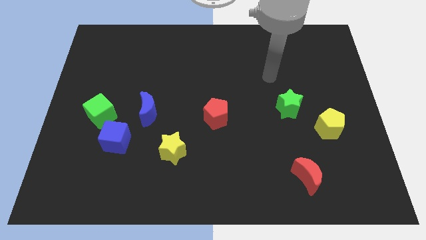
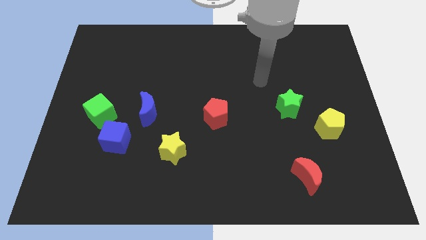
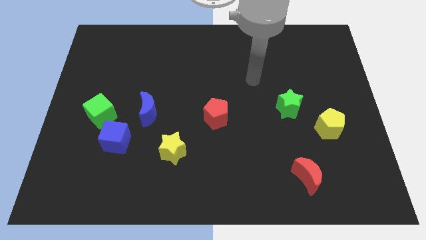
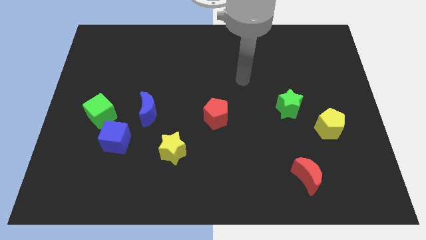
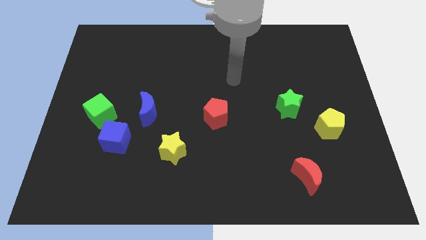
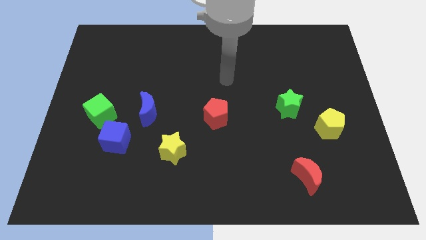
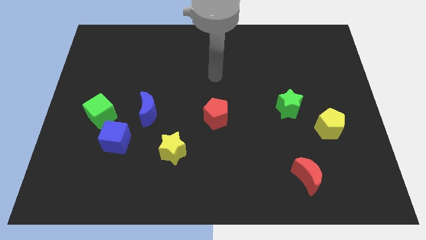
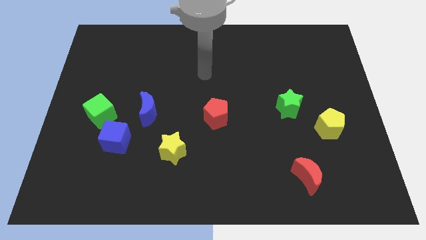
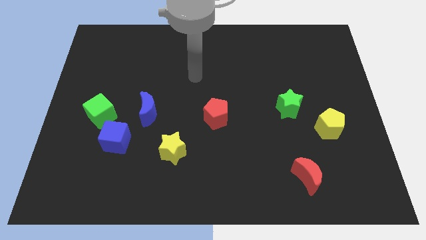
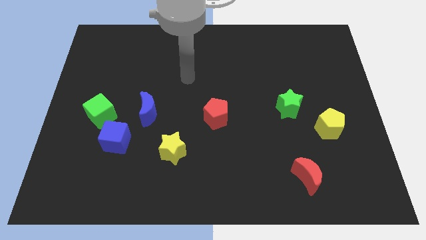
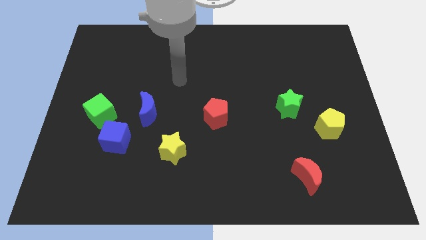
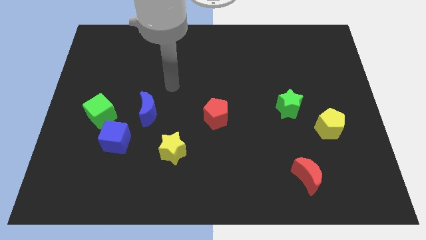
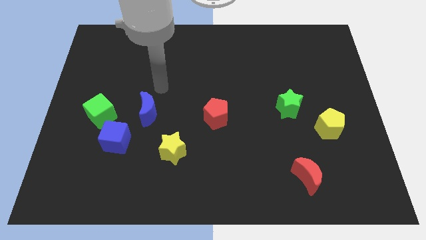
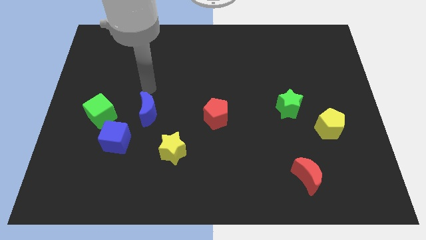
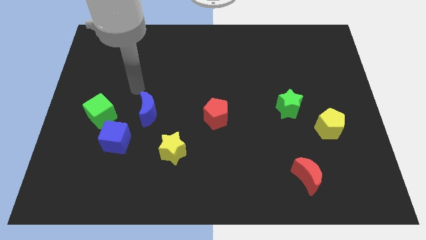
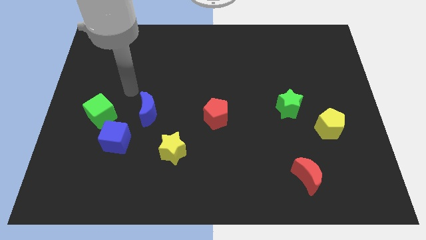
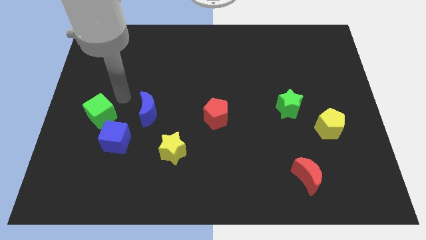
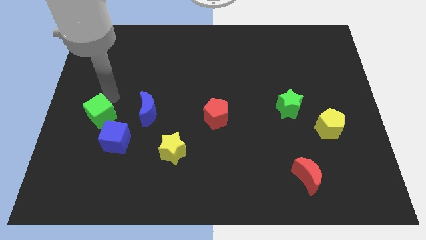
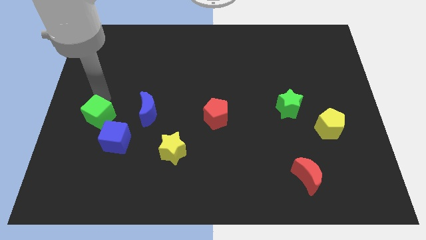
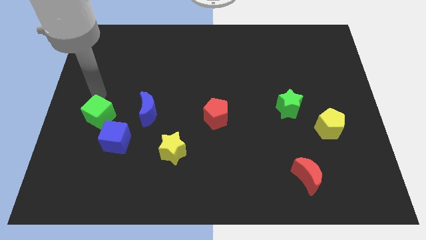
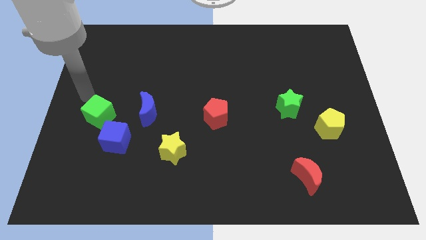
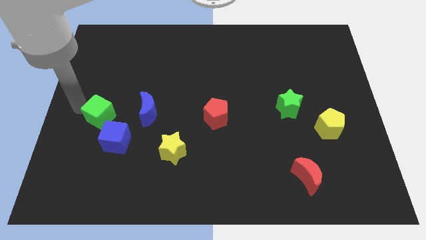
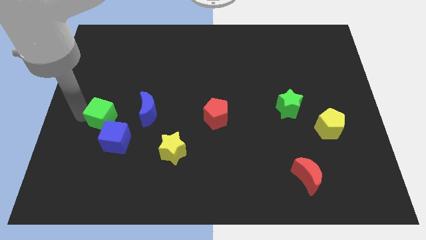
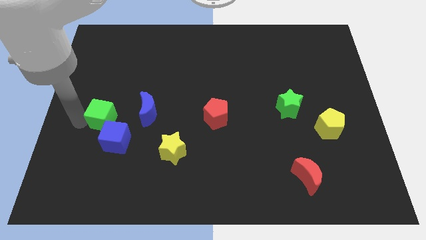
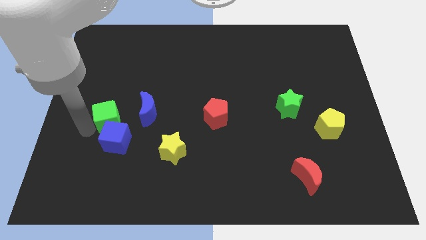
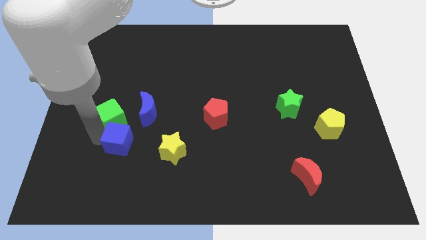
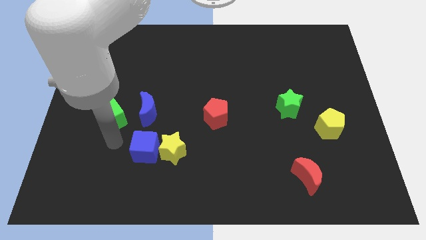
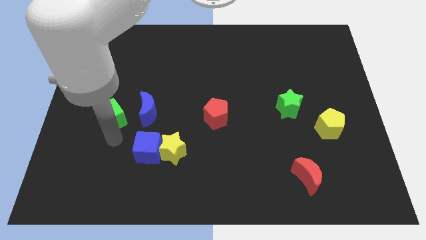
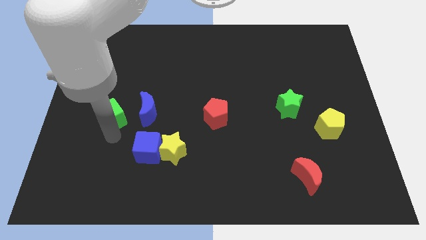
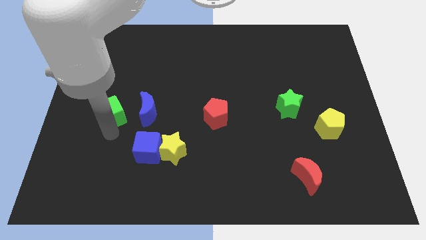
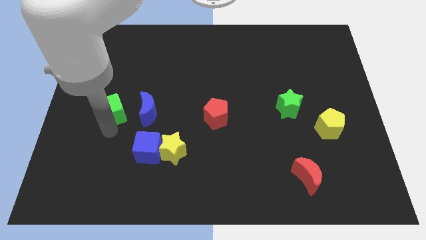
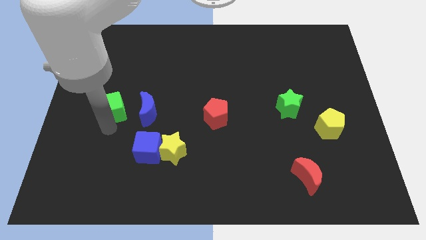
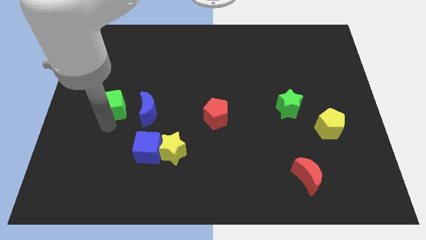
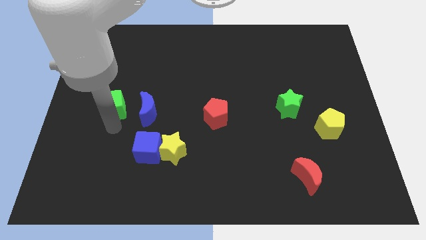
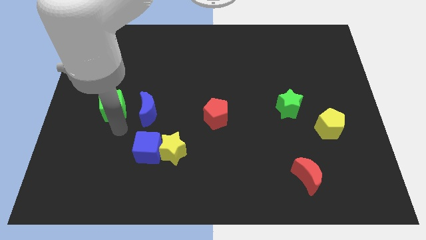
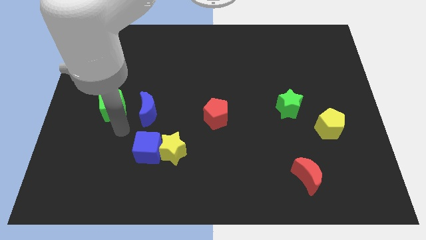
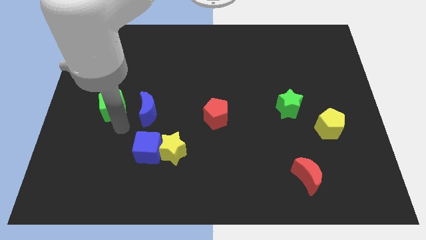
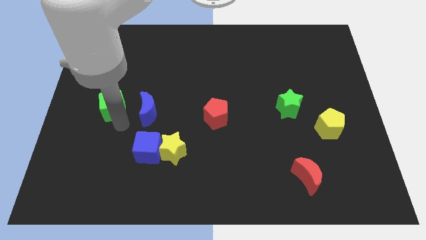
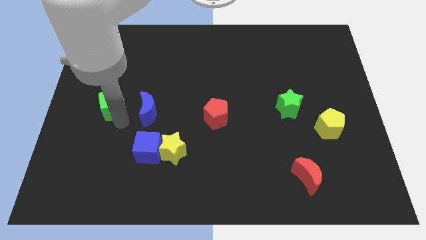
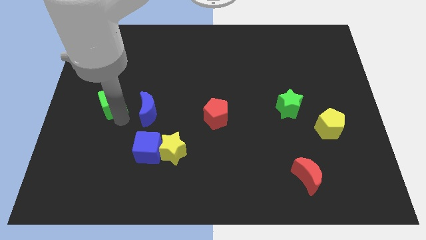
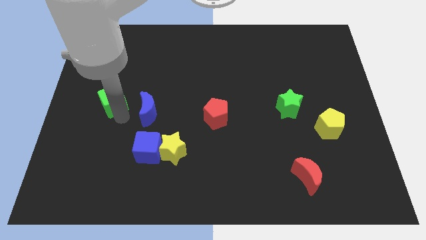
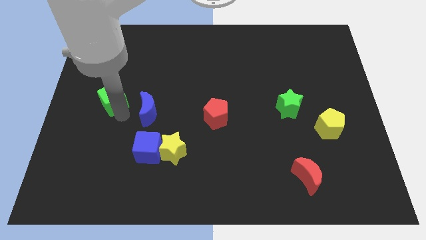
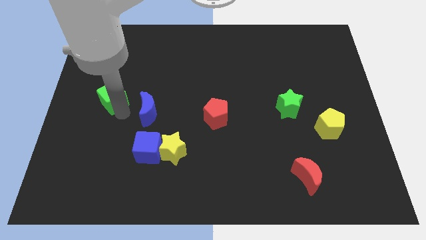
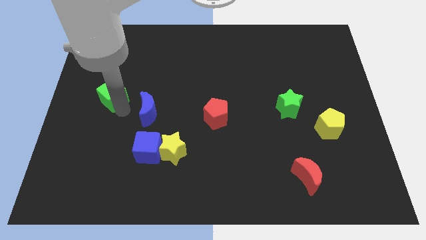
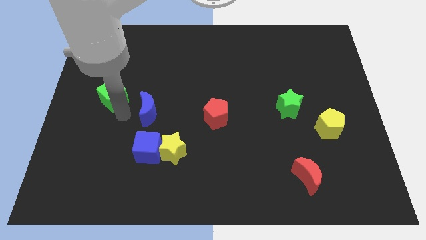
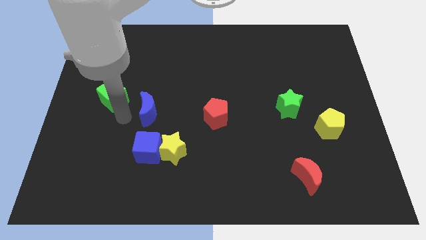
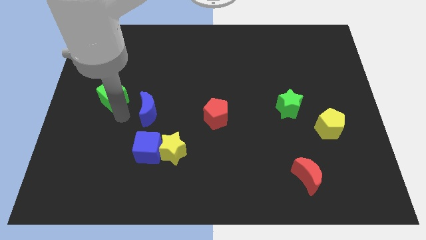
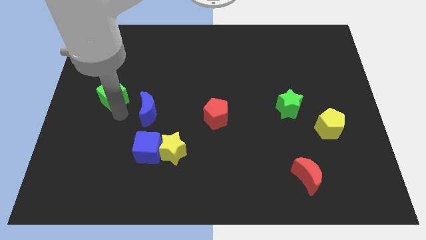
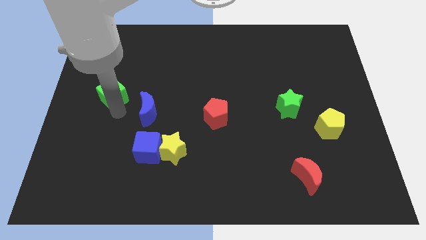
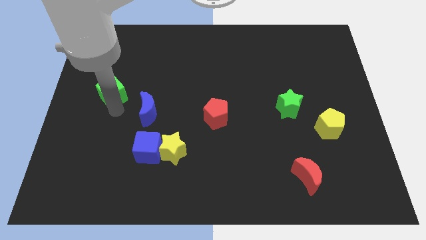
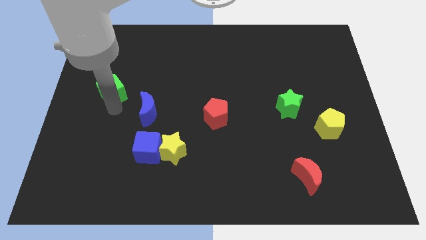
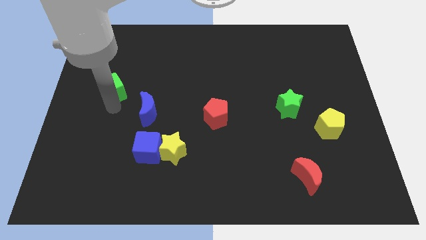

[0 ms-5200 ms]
slightly push the green cube upwards

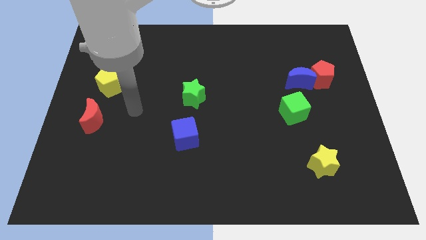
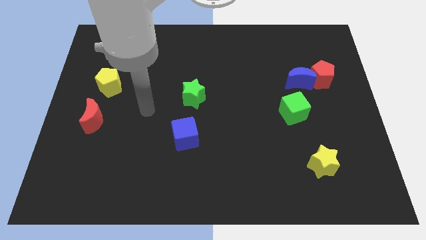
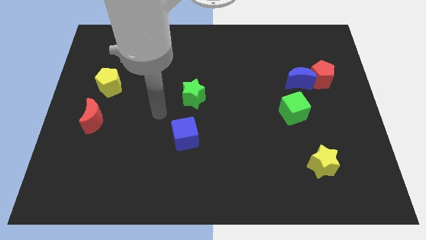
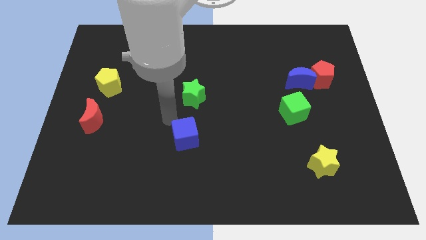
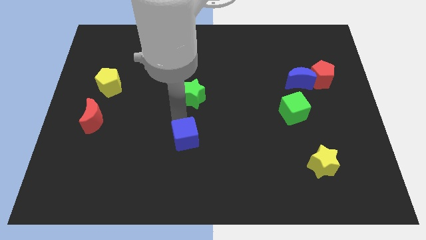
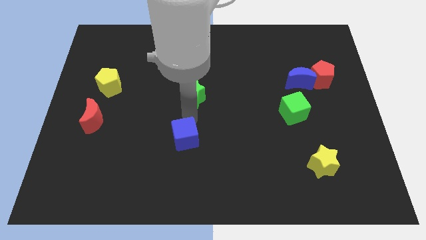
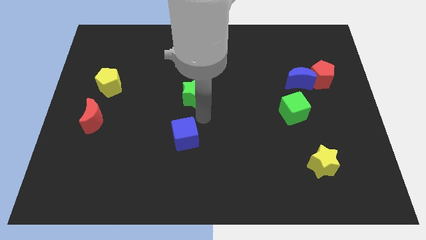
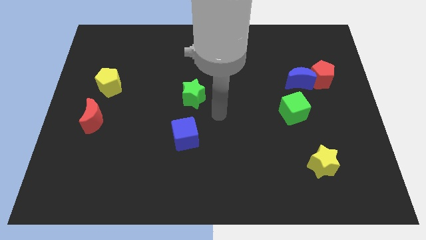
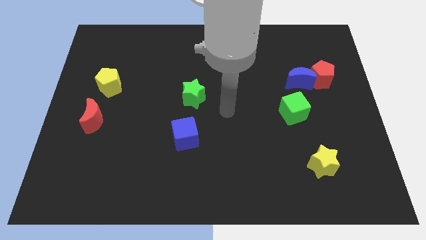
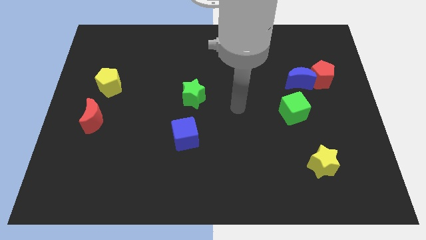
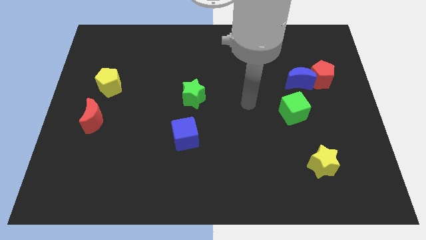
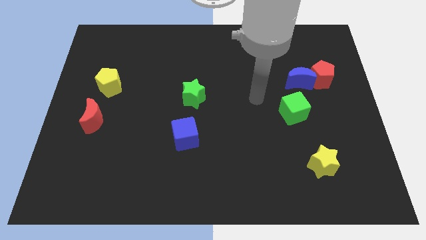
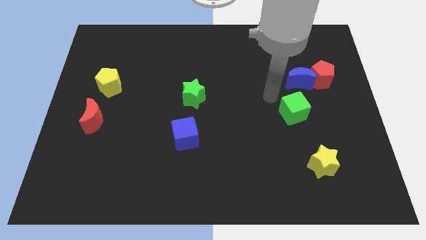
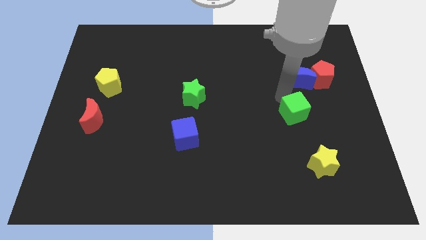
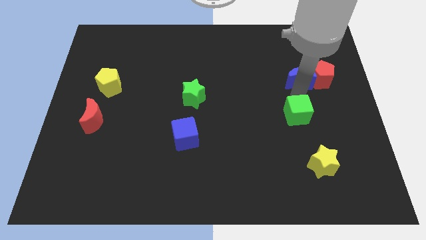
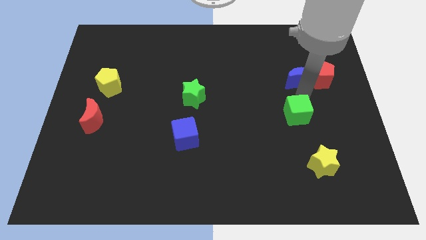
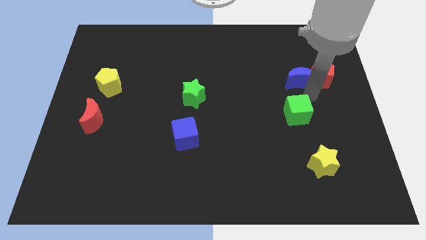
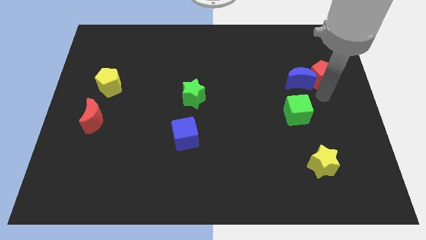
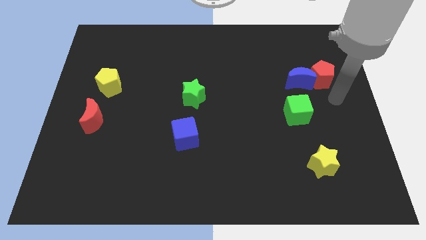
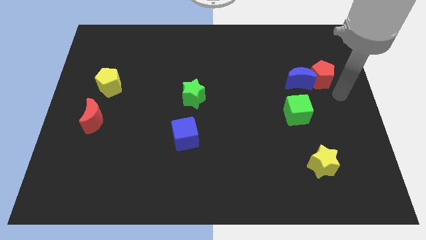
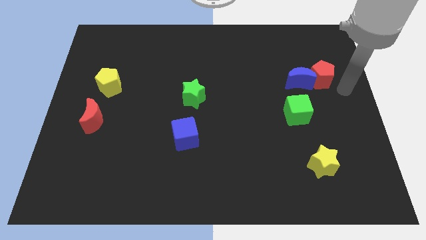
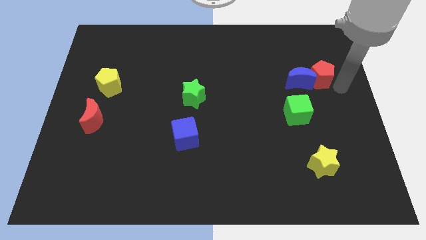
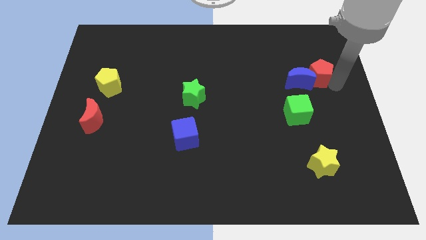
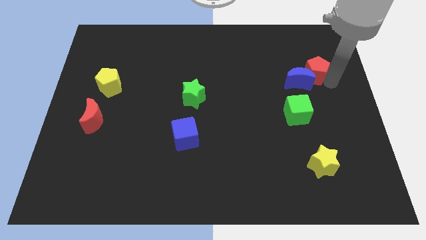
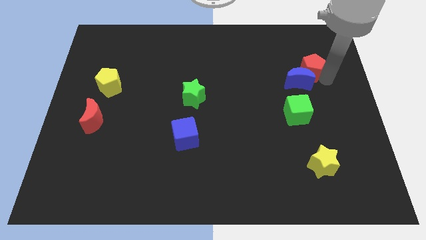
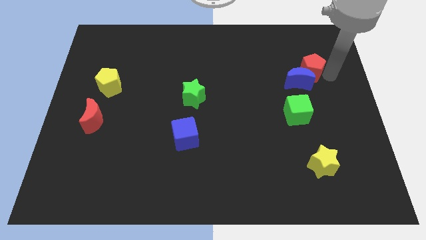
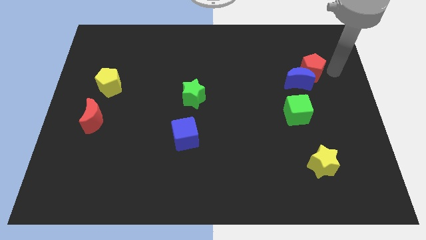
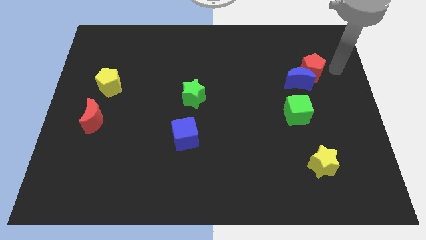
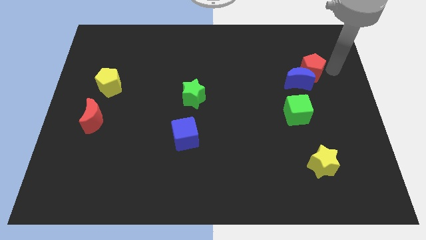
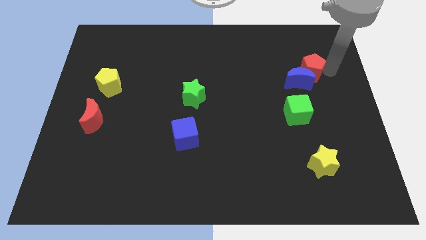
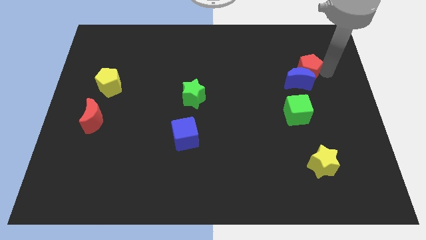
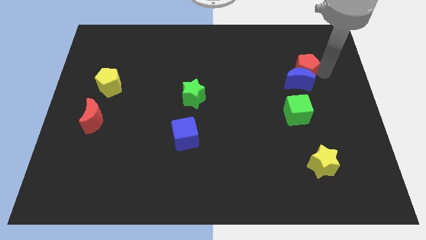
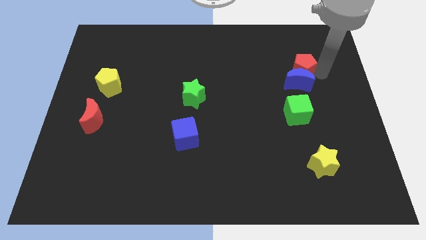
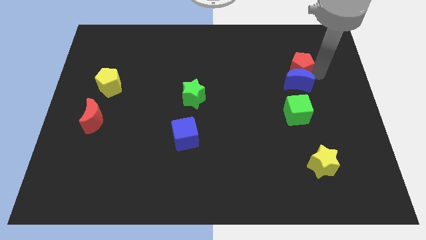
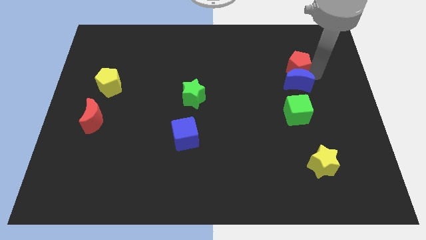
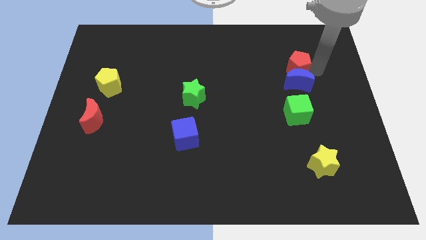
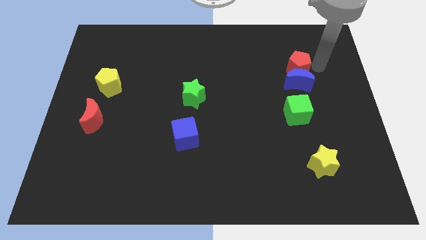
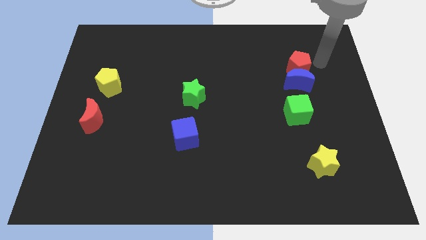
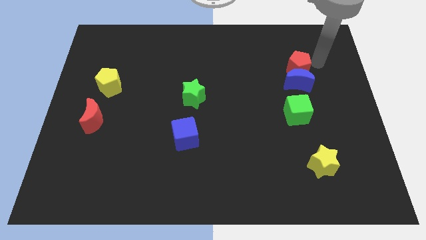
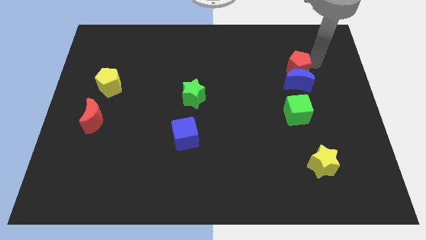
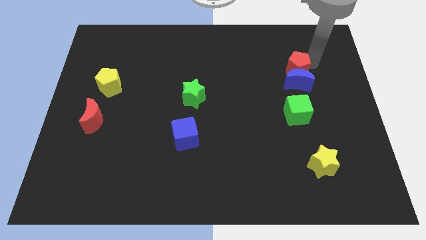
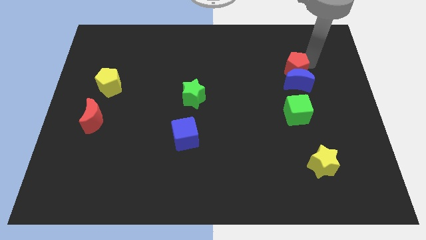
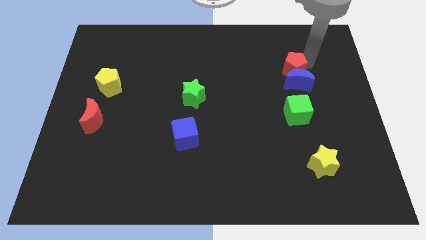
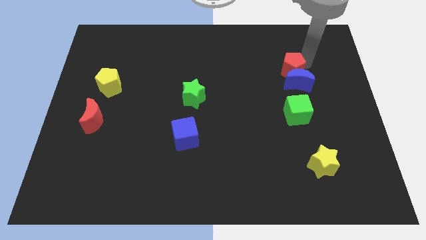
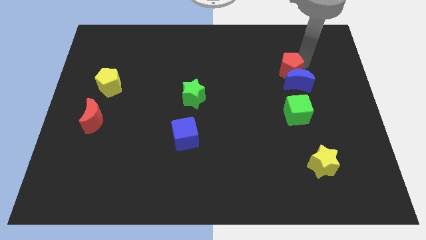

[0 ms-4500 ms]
move the red pentagon a little to the left
